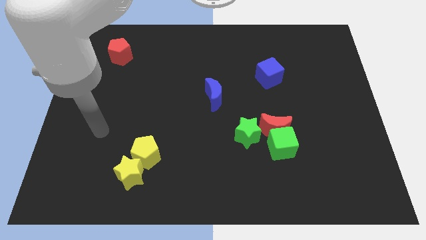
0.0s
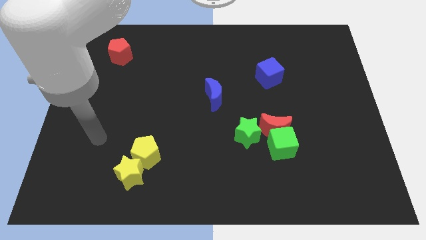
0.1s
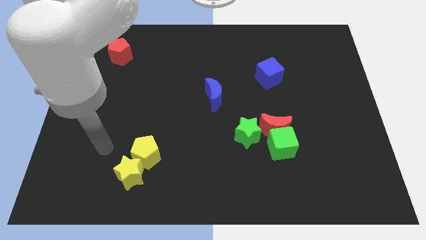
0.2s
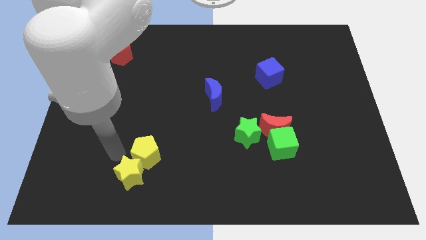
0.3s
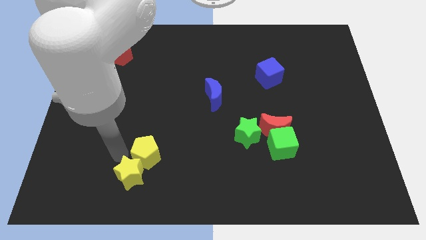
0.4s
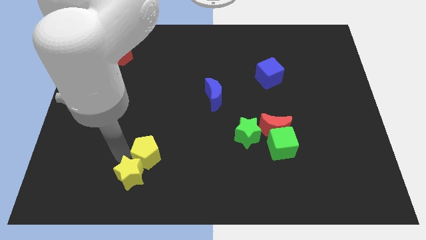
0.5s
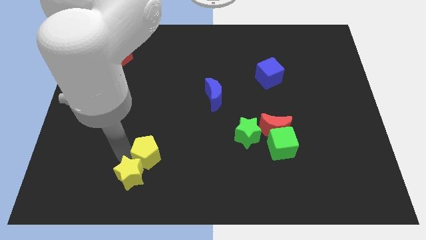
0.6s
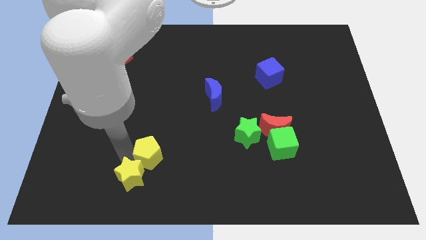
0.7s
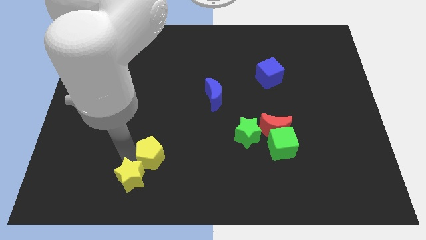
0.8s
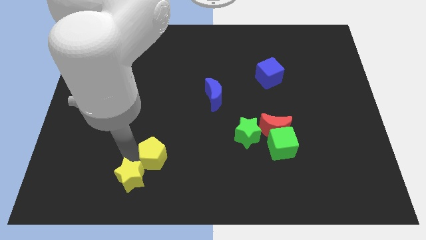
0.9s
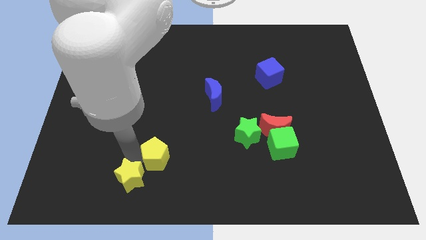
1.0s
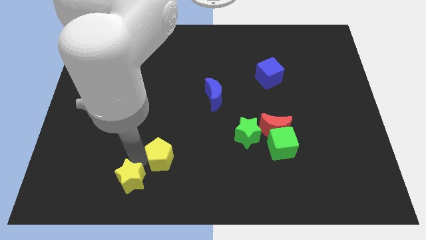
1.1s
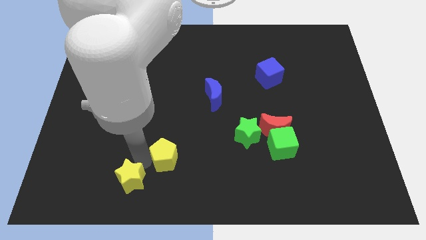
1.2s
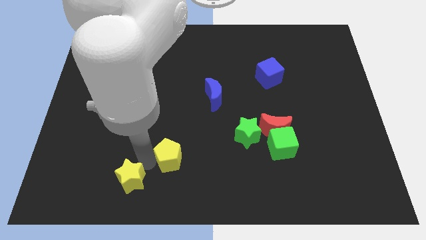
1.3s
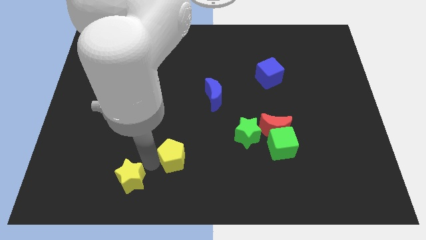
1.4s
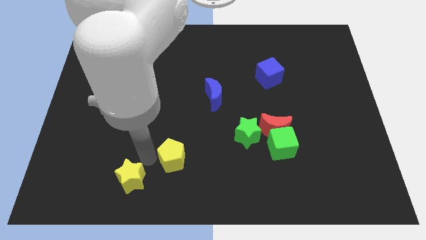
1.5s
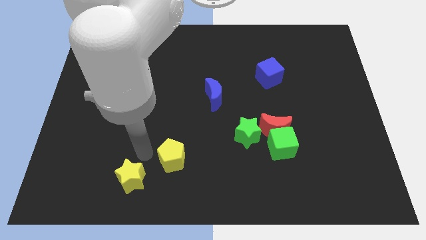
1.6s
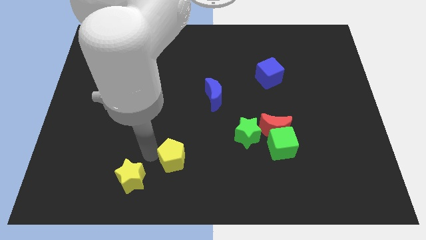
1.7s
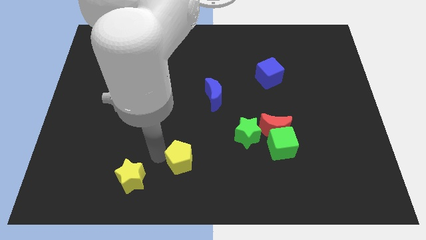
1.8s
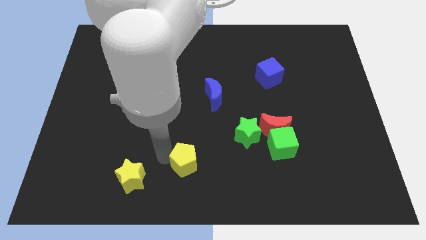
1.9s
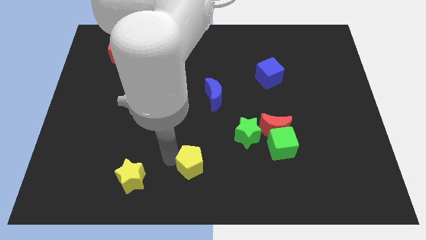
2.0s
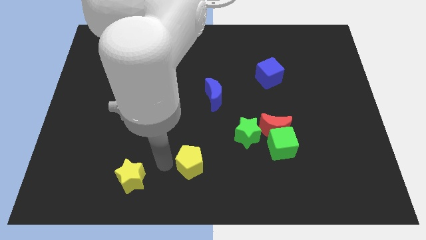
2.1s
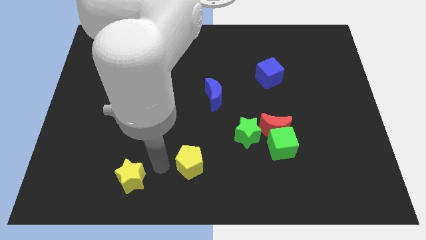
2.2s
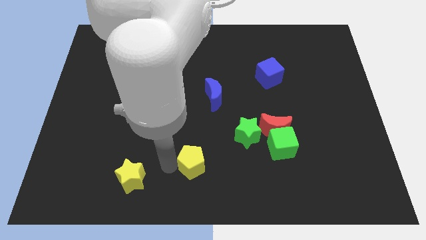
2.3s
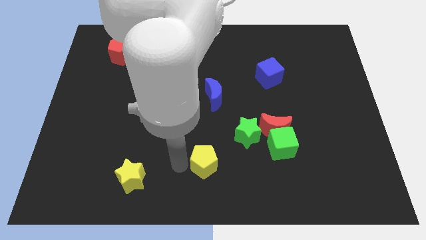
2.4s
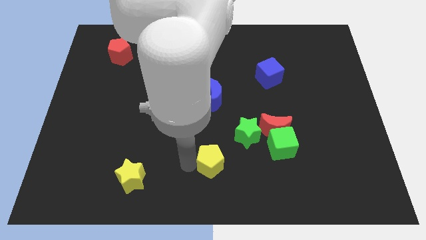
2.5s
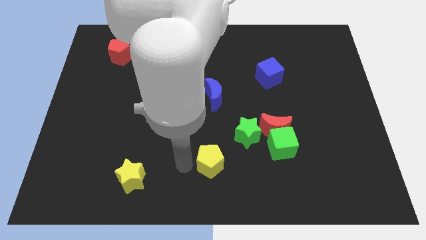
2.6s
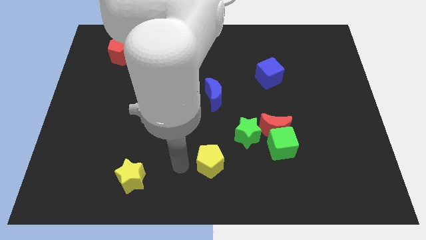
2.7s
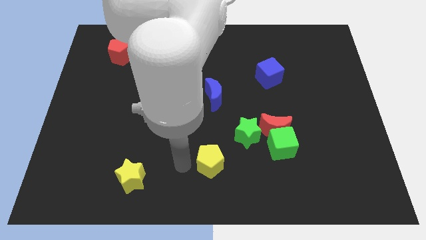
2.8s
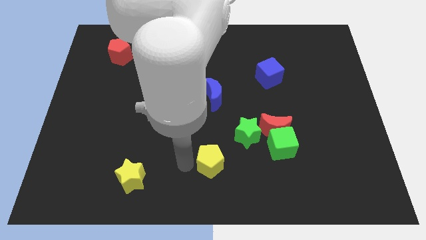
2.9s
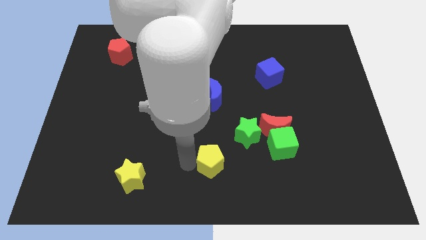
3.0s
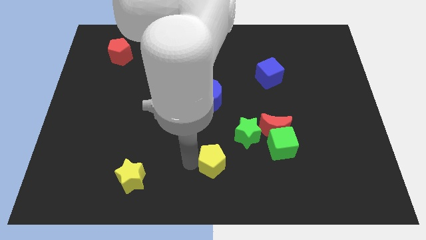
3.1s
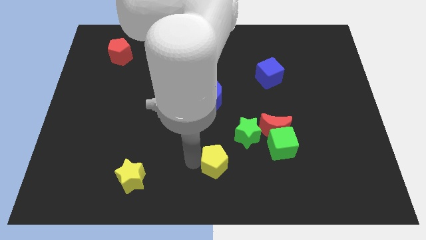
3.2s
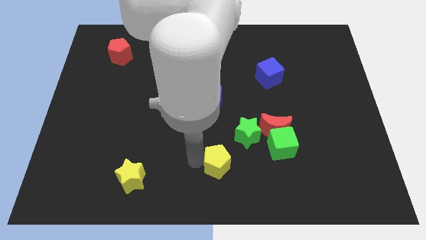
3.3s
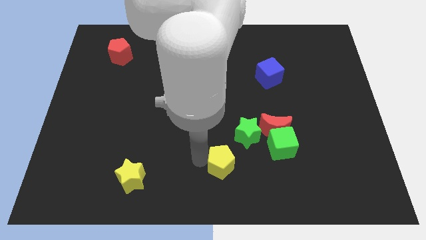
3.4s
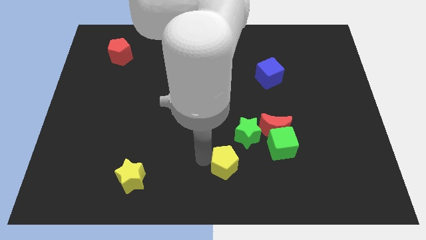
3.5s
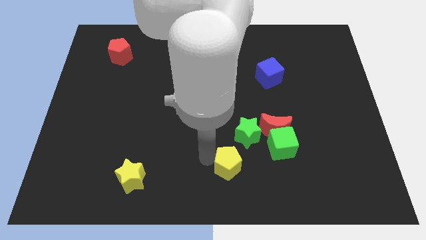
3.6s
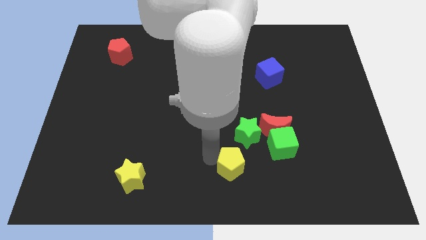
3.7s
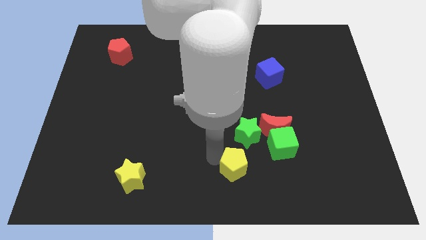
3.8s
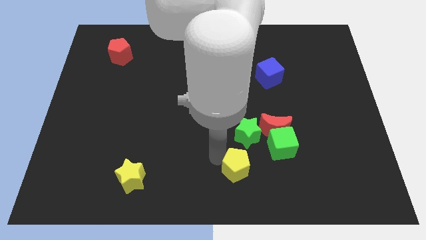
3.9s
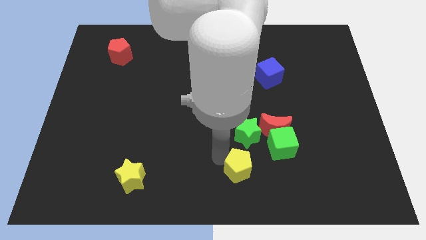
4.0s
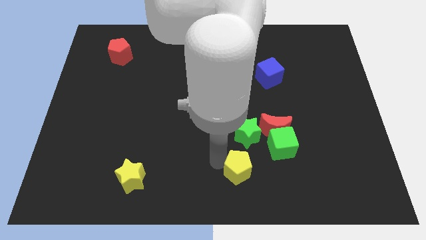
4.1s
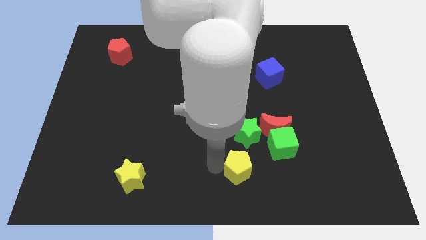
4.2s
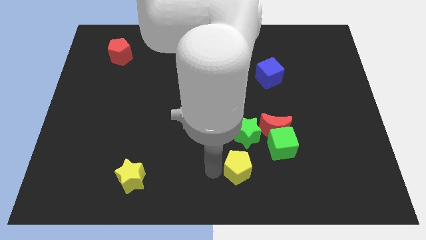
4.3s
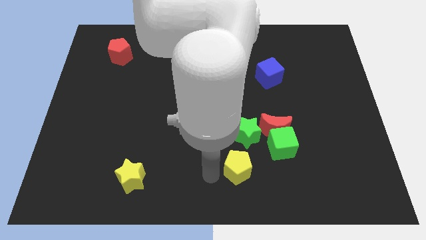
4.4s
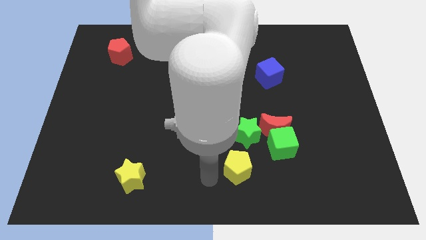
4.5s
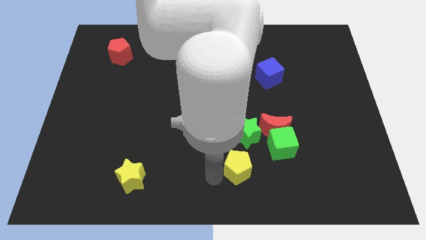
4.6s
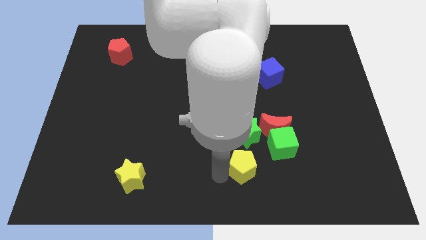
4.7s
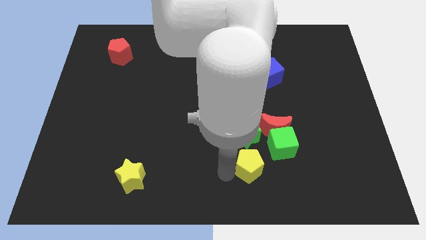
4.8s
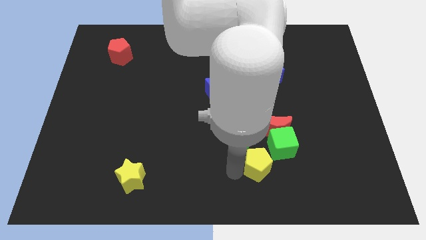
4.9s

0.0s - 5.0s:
move the yellow pentagon to the bottom right side of the green star

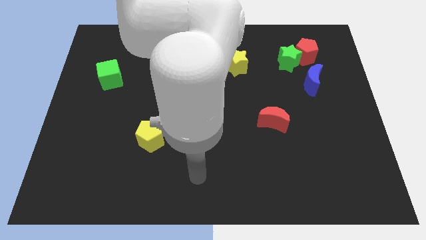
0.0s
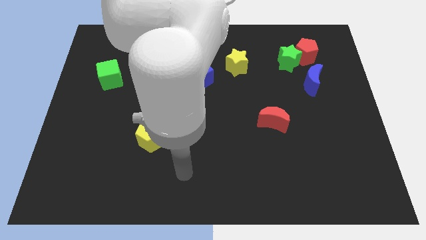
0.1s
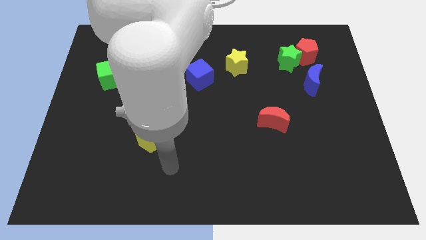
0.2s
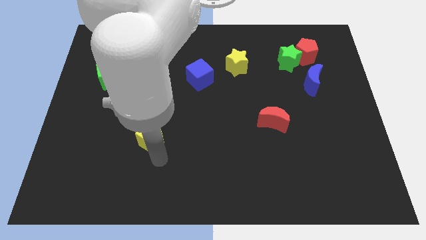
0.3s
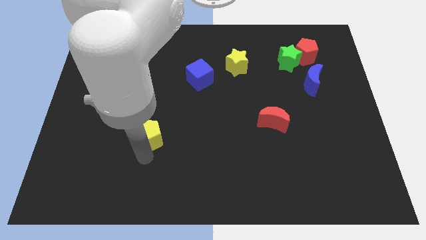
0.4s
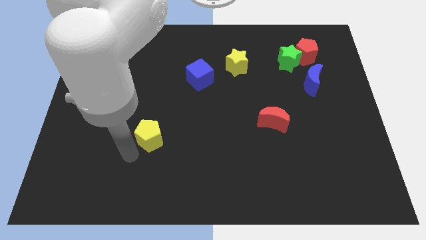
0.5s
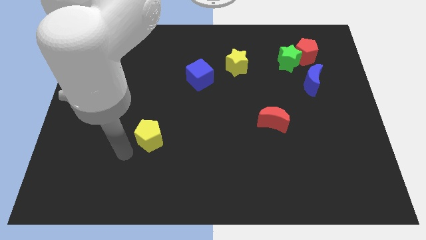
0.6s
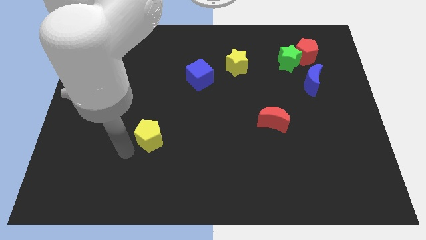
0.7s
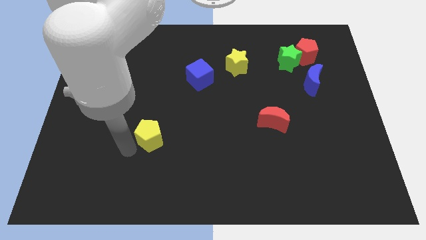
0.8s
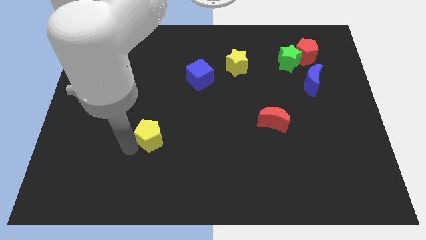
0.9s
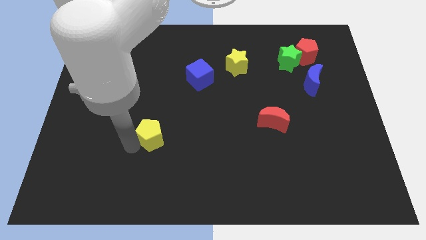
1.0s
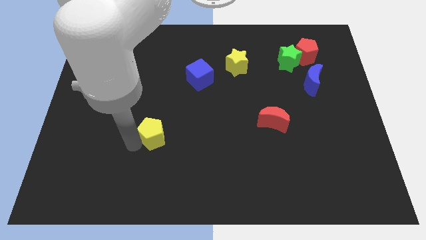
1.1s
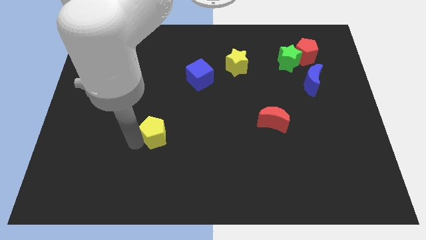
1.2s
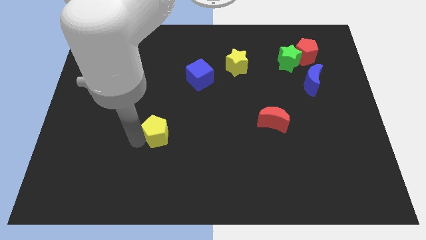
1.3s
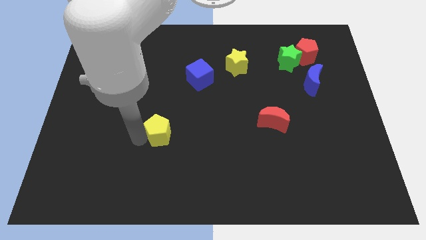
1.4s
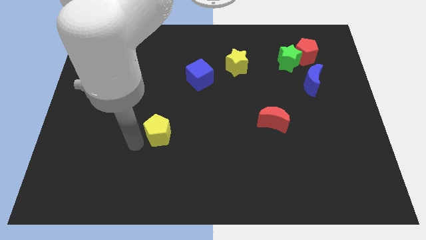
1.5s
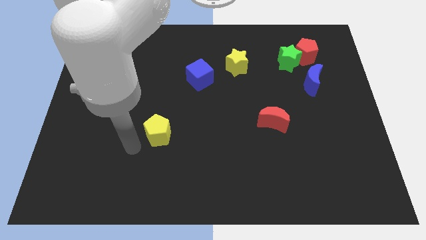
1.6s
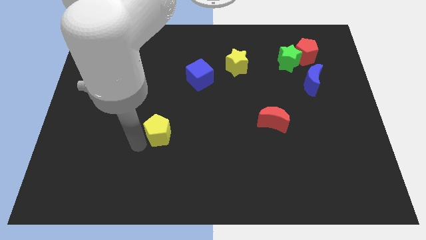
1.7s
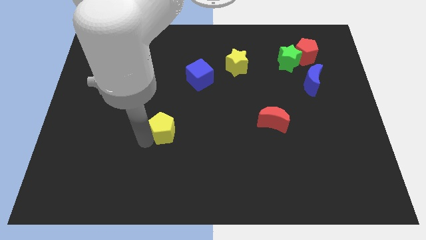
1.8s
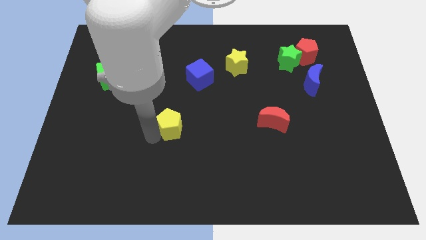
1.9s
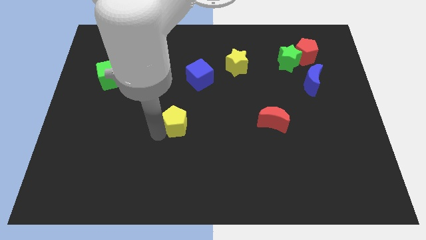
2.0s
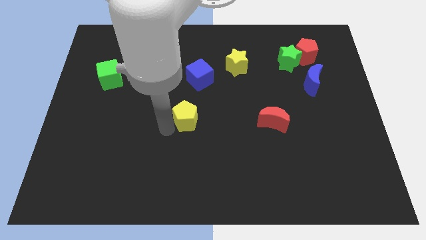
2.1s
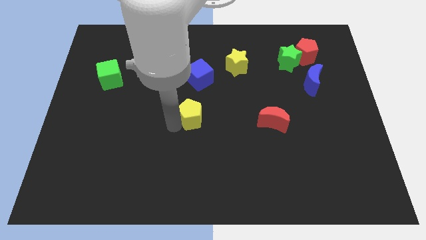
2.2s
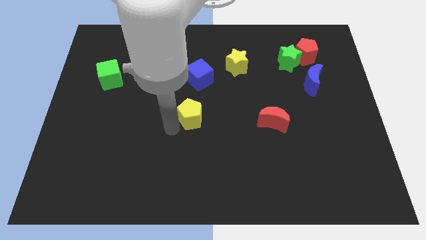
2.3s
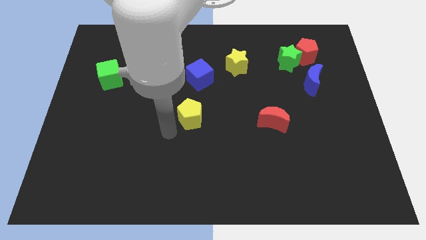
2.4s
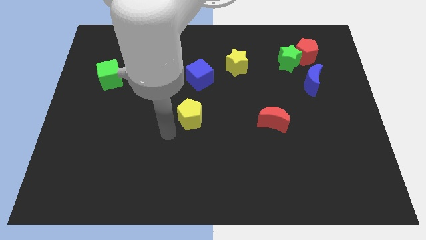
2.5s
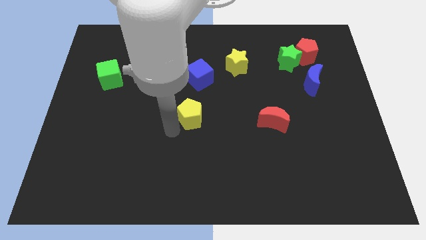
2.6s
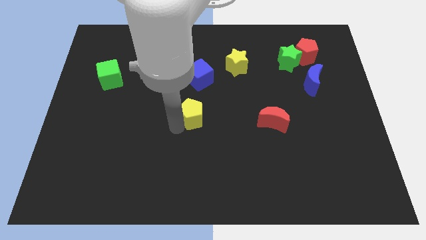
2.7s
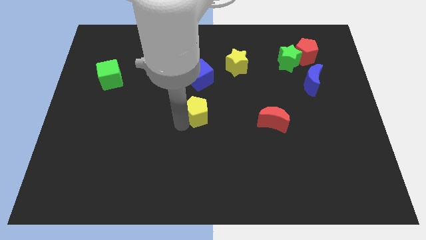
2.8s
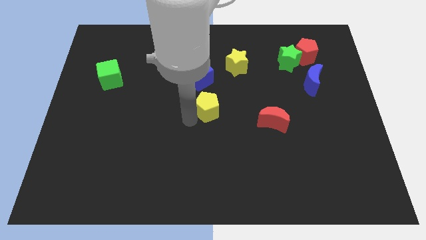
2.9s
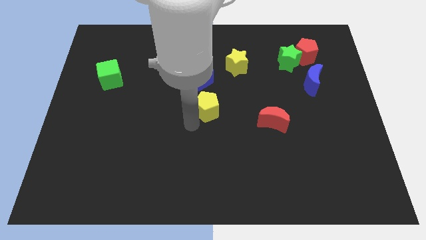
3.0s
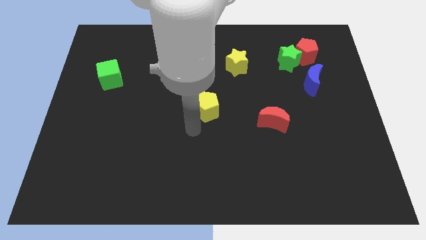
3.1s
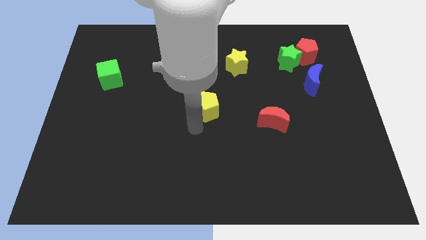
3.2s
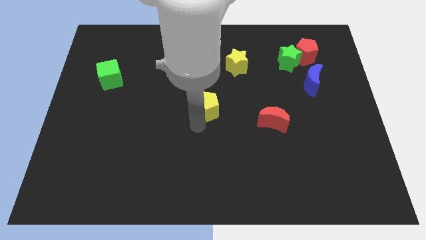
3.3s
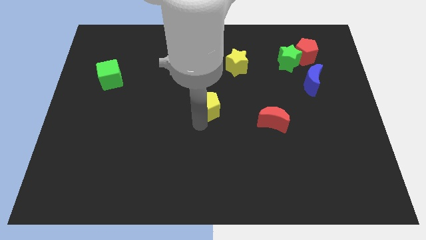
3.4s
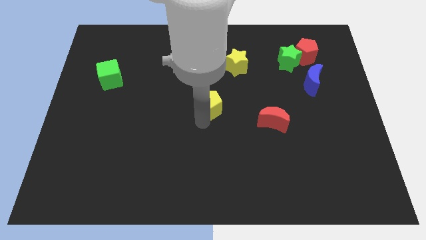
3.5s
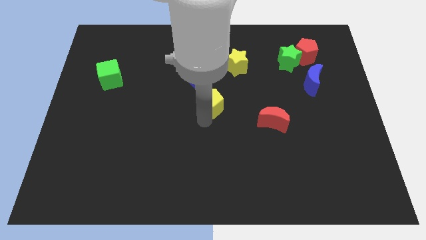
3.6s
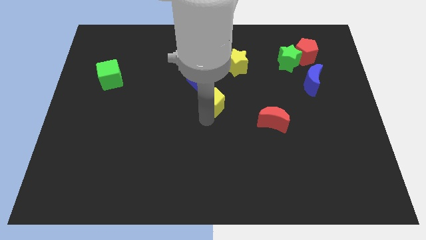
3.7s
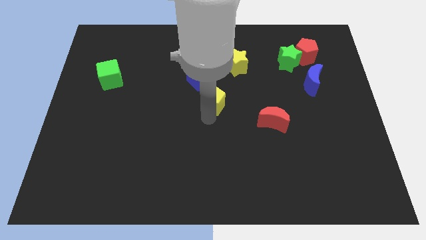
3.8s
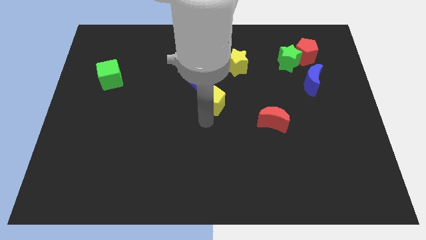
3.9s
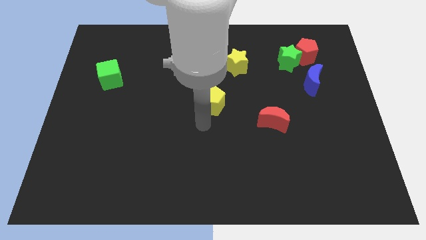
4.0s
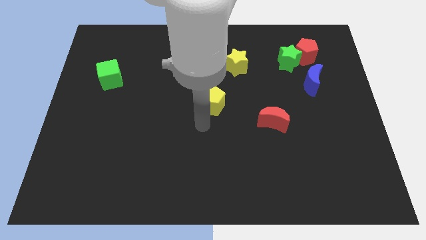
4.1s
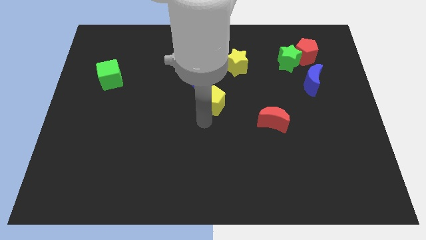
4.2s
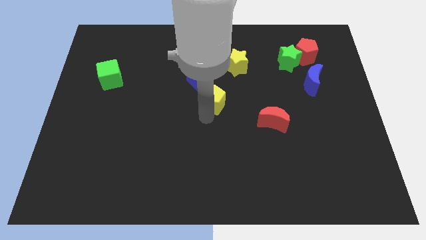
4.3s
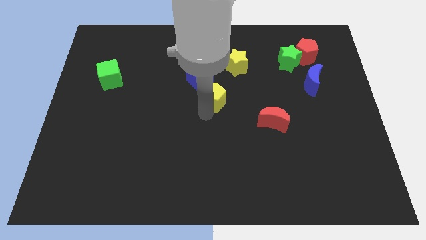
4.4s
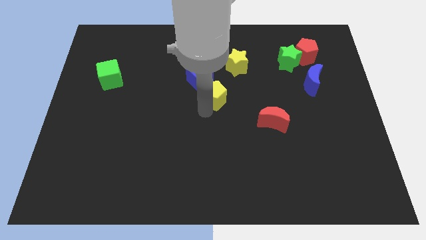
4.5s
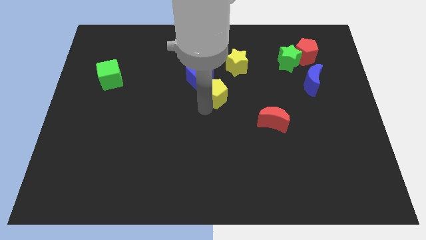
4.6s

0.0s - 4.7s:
put the yellow pentagon to the bottom left side of the yellow star
